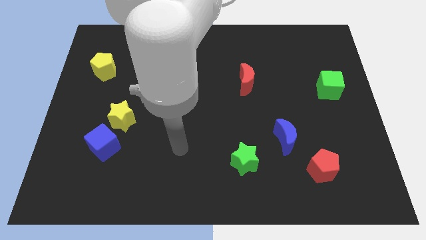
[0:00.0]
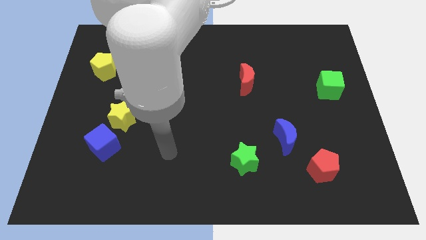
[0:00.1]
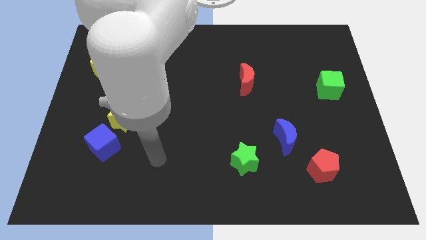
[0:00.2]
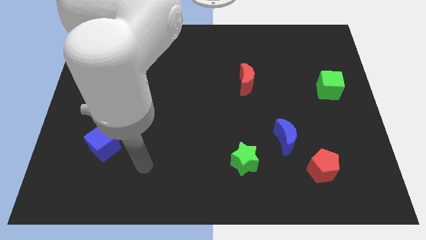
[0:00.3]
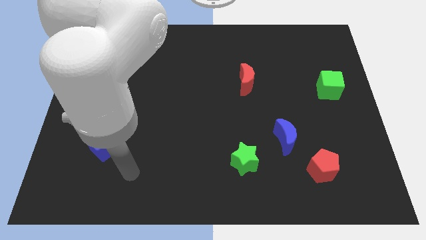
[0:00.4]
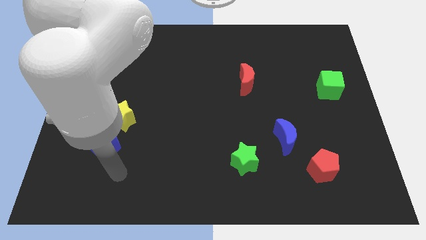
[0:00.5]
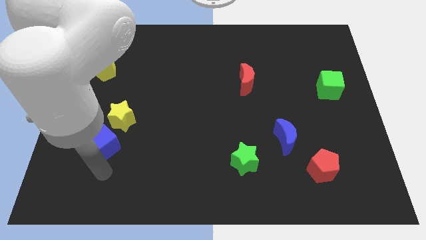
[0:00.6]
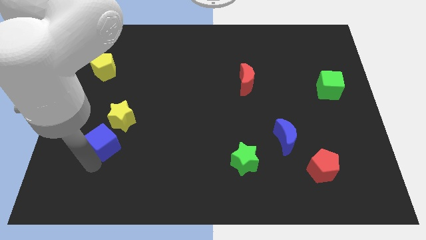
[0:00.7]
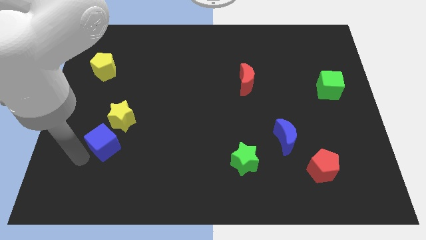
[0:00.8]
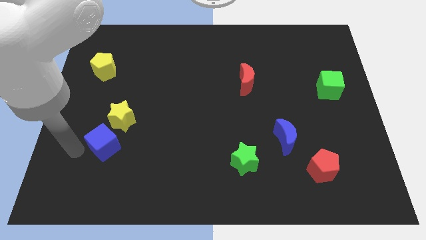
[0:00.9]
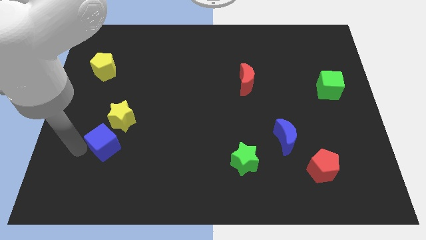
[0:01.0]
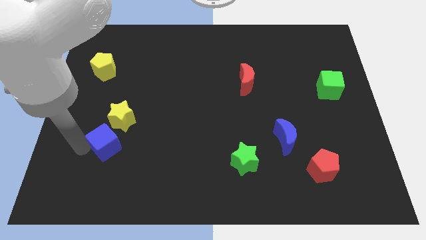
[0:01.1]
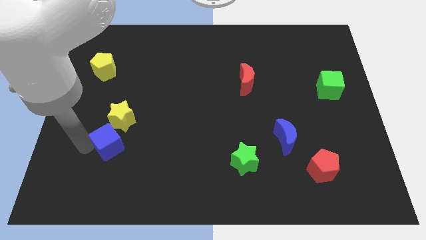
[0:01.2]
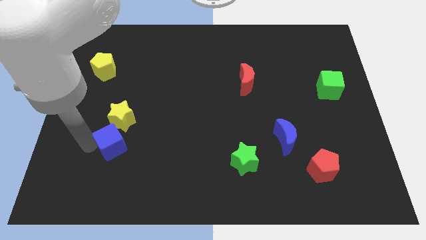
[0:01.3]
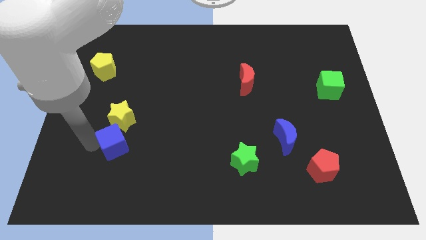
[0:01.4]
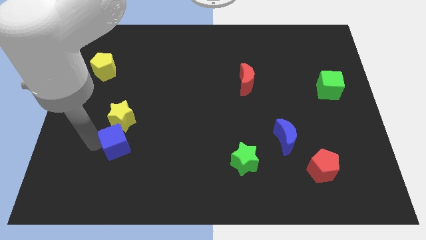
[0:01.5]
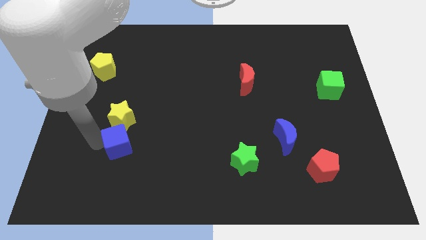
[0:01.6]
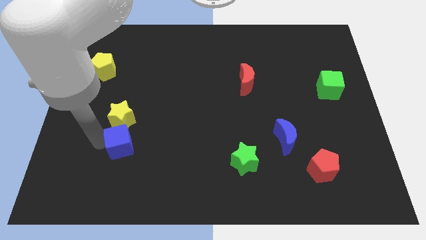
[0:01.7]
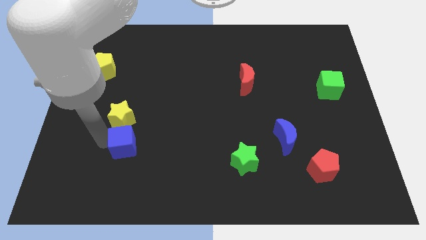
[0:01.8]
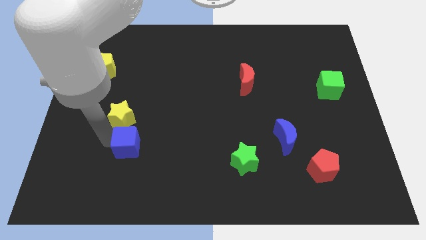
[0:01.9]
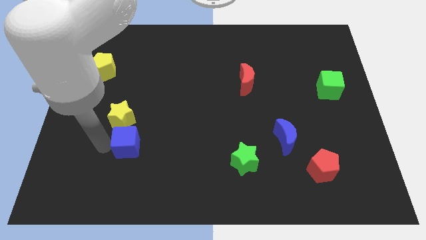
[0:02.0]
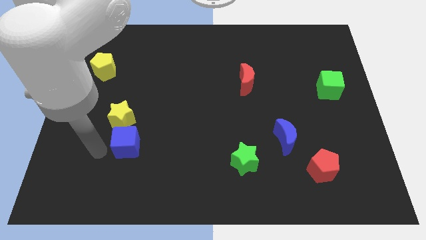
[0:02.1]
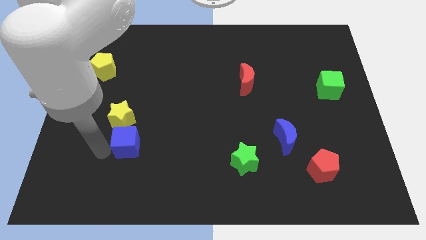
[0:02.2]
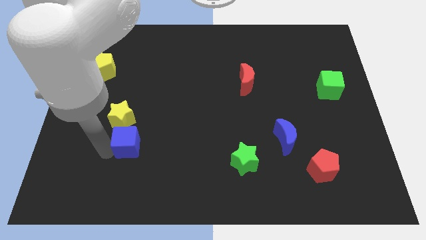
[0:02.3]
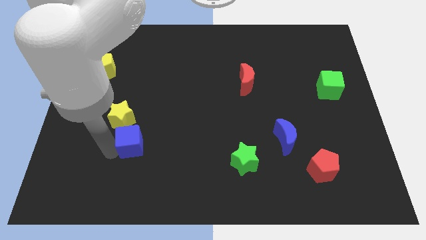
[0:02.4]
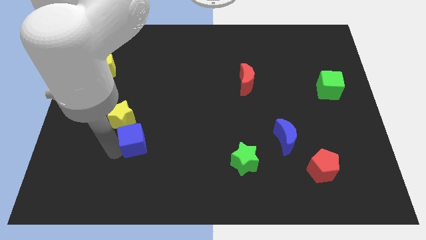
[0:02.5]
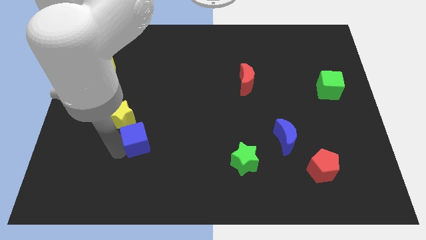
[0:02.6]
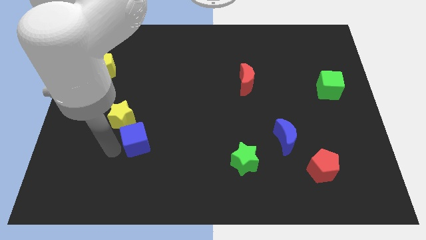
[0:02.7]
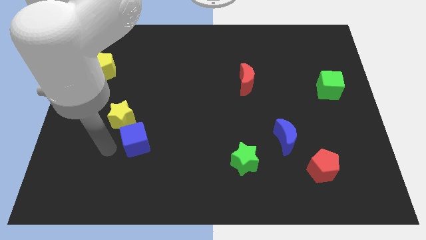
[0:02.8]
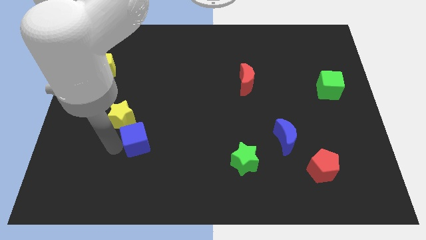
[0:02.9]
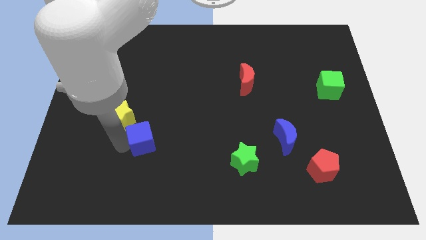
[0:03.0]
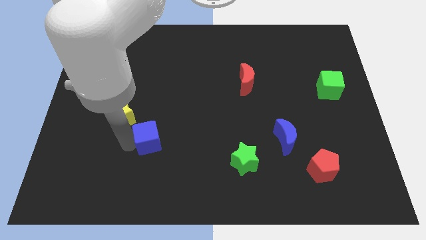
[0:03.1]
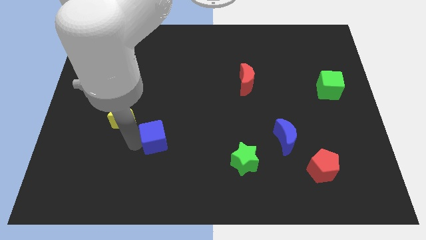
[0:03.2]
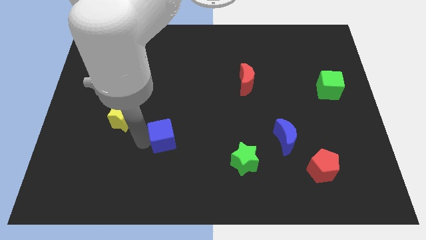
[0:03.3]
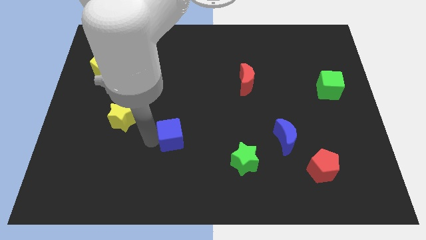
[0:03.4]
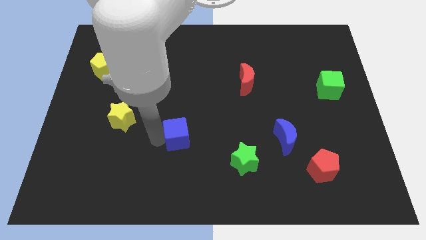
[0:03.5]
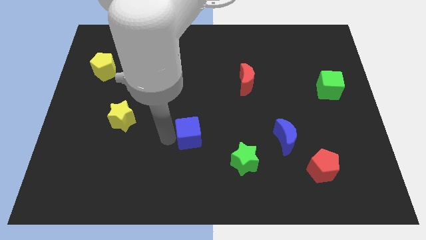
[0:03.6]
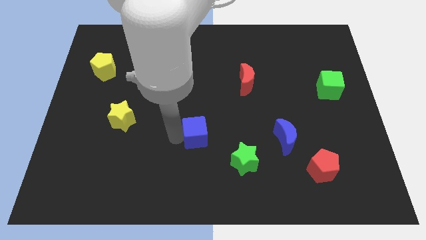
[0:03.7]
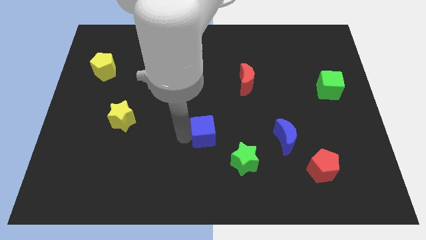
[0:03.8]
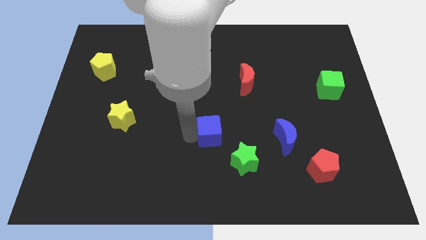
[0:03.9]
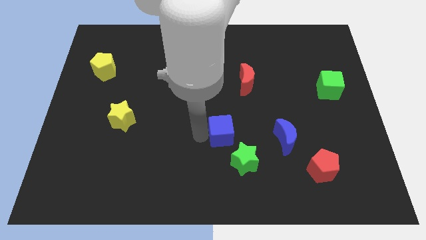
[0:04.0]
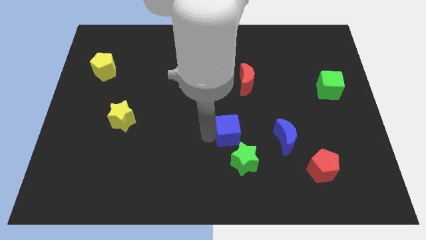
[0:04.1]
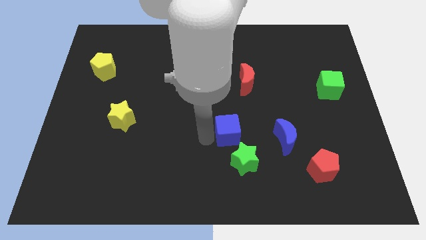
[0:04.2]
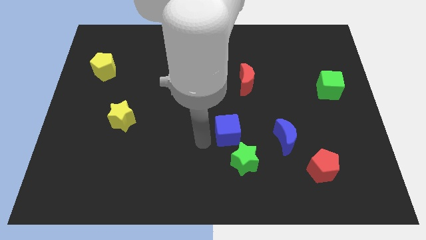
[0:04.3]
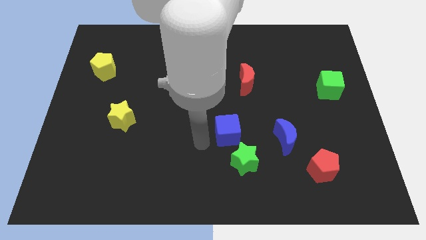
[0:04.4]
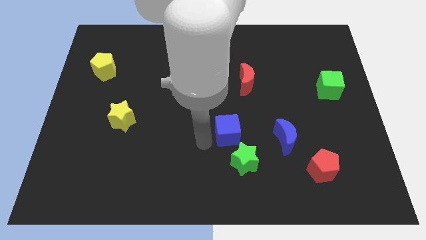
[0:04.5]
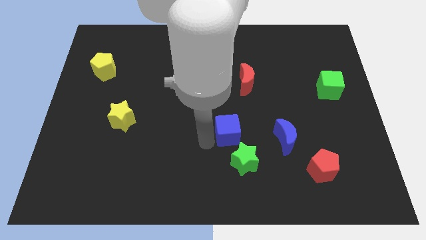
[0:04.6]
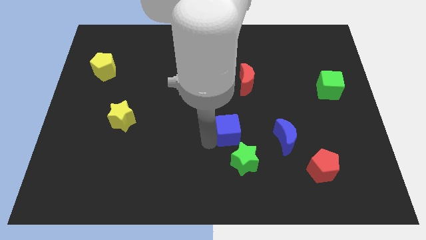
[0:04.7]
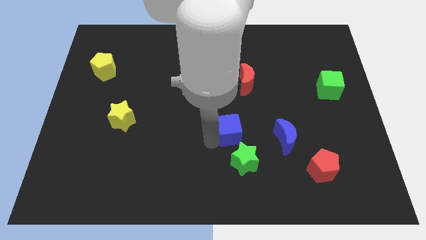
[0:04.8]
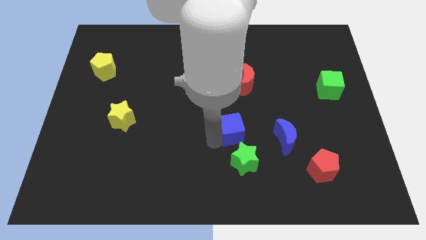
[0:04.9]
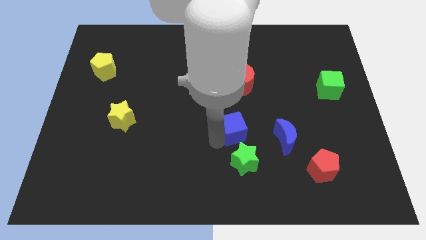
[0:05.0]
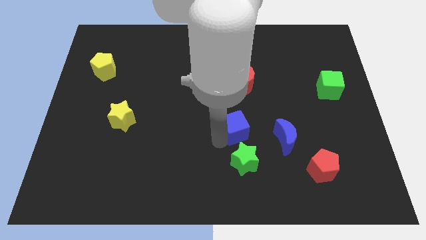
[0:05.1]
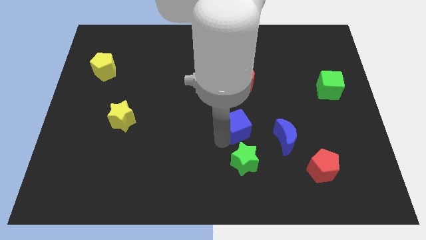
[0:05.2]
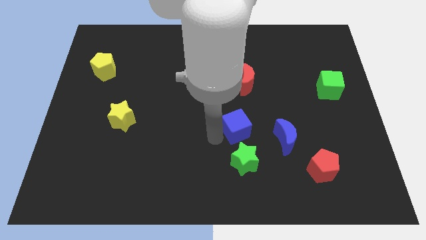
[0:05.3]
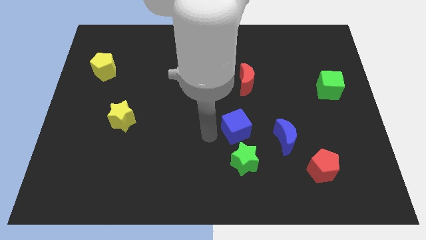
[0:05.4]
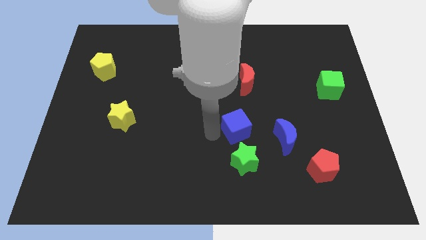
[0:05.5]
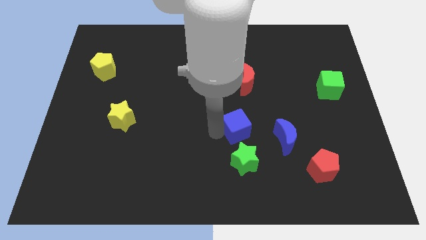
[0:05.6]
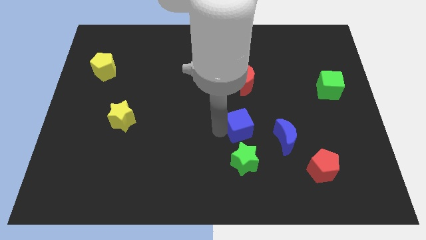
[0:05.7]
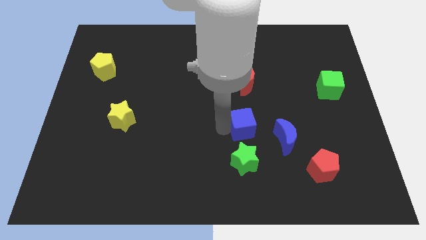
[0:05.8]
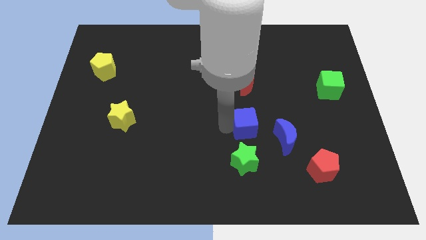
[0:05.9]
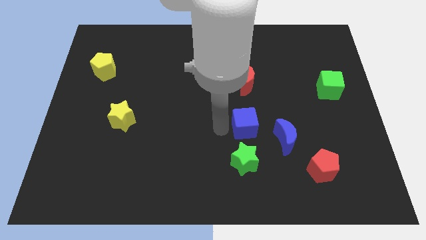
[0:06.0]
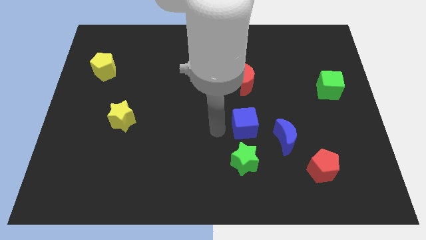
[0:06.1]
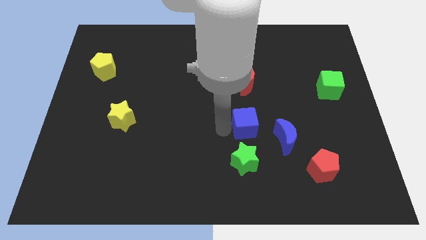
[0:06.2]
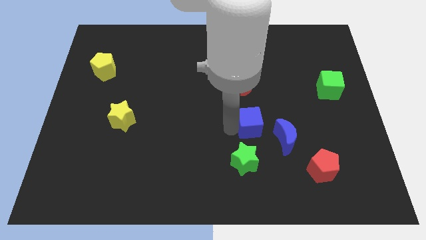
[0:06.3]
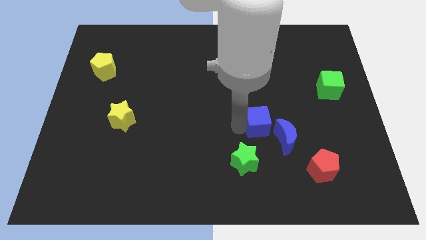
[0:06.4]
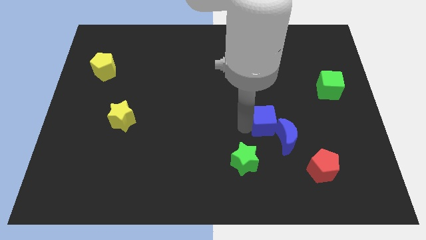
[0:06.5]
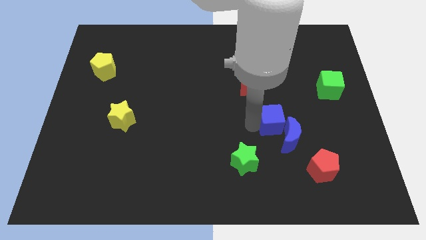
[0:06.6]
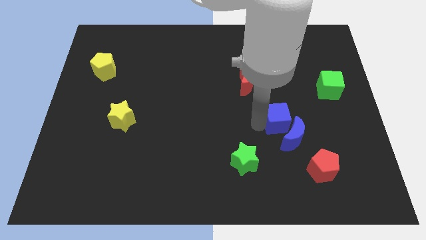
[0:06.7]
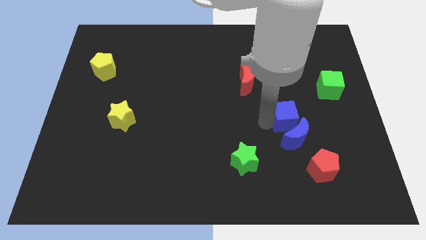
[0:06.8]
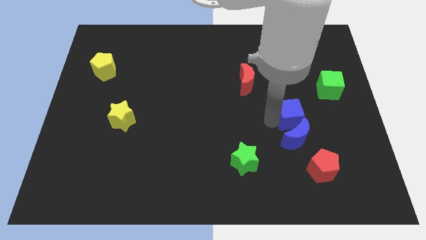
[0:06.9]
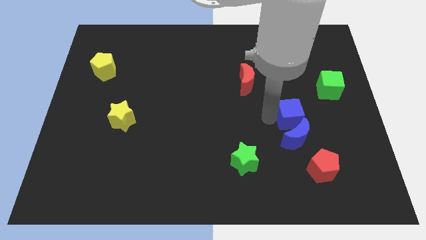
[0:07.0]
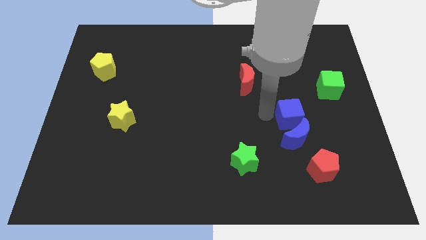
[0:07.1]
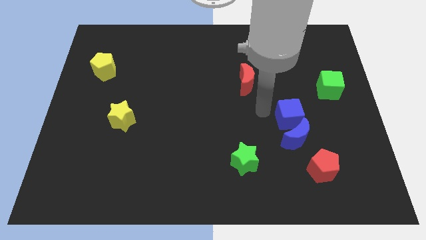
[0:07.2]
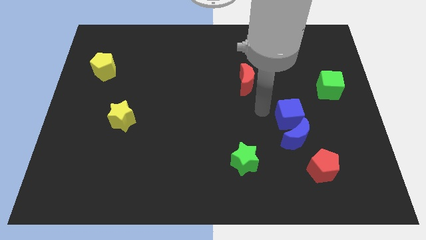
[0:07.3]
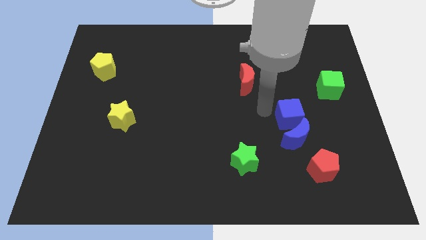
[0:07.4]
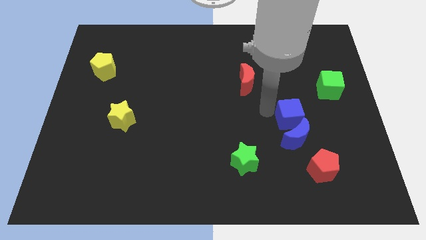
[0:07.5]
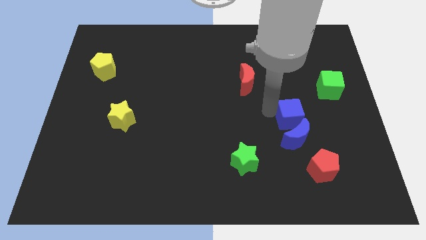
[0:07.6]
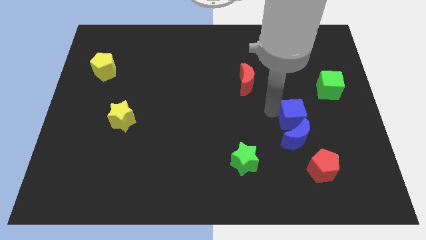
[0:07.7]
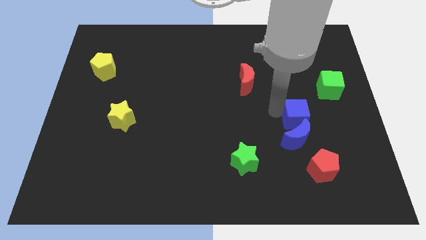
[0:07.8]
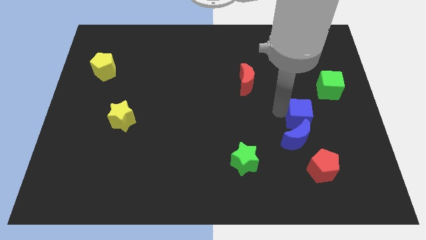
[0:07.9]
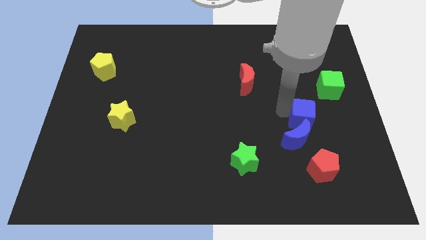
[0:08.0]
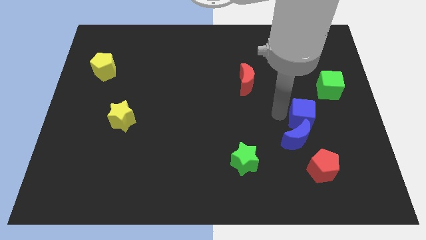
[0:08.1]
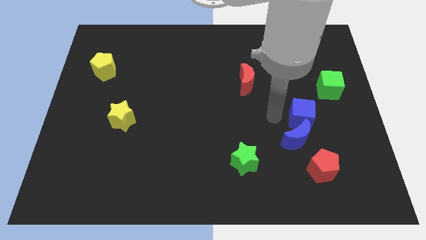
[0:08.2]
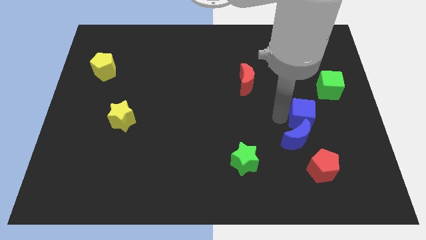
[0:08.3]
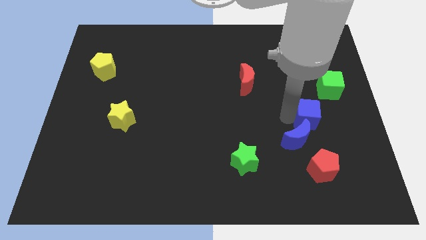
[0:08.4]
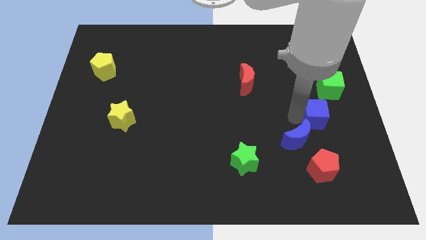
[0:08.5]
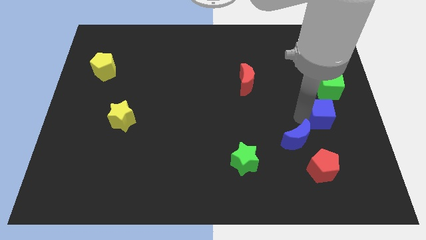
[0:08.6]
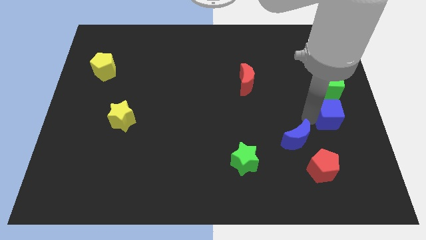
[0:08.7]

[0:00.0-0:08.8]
put the blue cube to the center right
